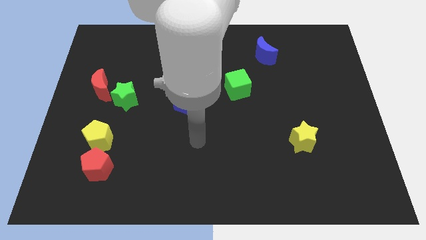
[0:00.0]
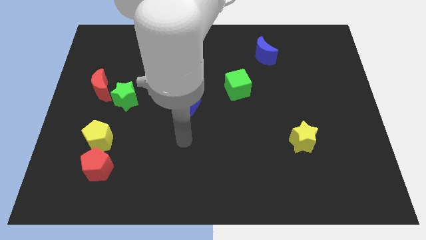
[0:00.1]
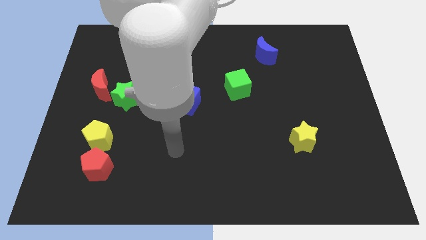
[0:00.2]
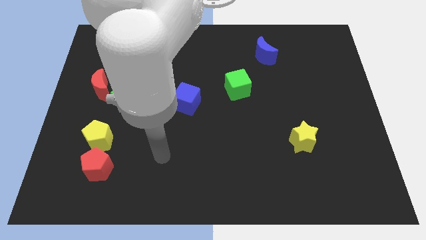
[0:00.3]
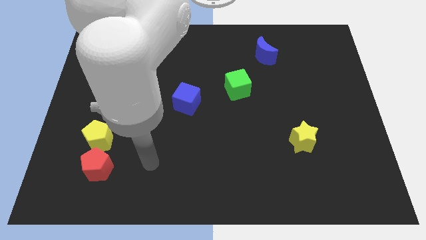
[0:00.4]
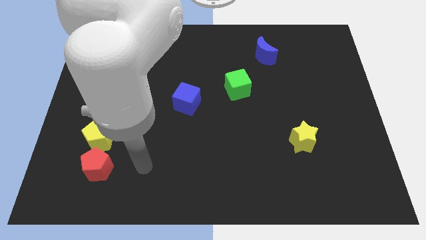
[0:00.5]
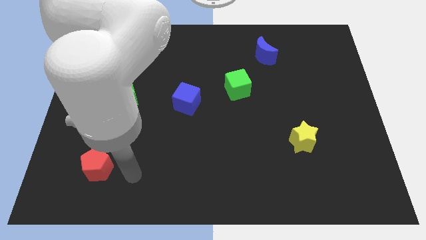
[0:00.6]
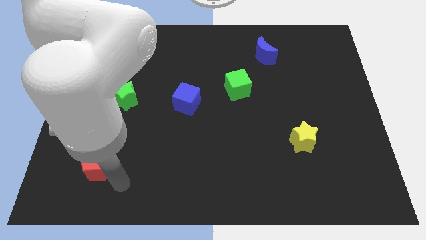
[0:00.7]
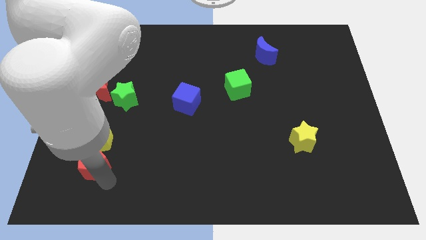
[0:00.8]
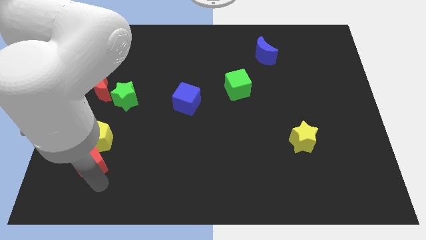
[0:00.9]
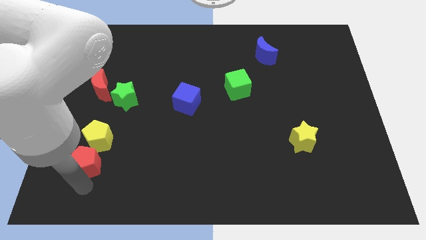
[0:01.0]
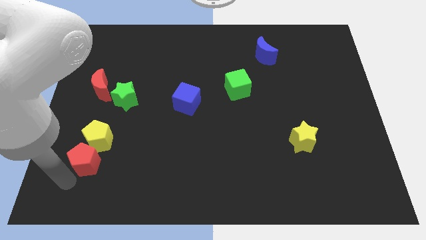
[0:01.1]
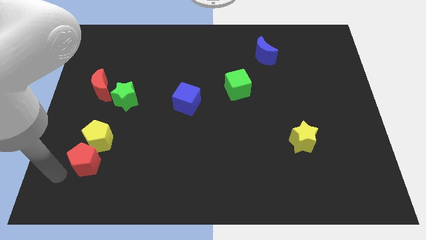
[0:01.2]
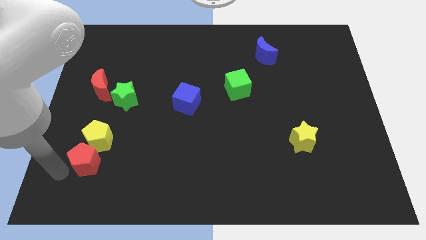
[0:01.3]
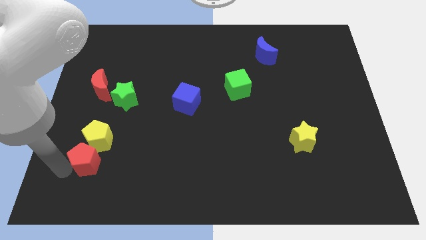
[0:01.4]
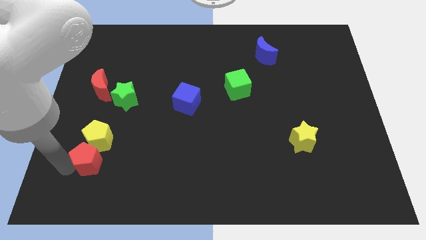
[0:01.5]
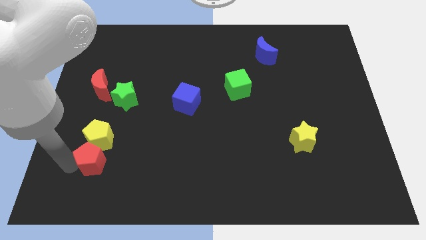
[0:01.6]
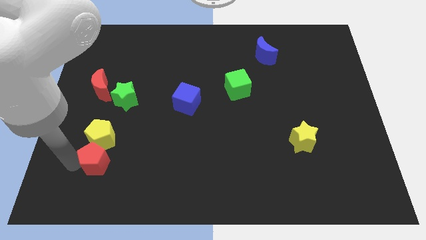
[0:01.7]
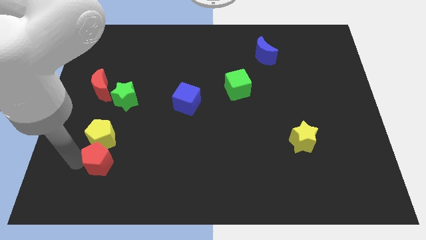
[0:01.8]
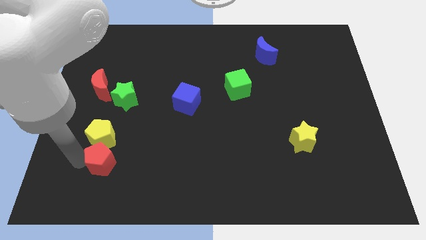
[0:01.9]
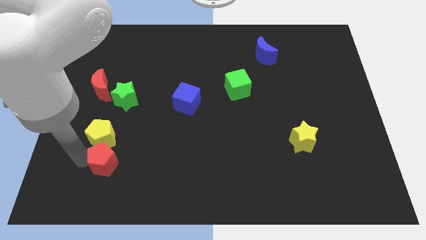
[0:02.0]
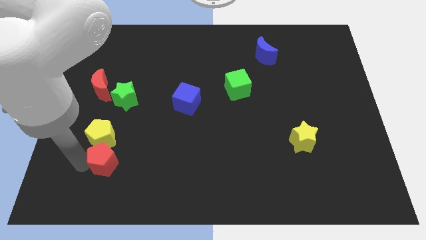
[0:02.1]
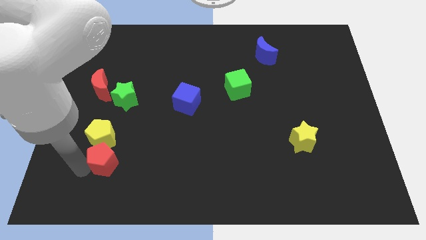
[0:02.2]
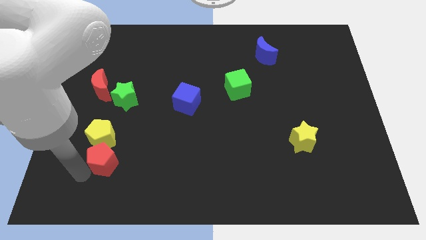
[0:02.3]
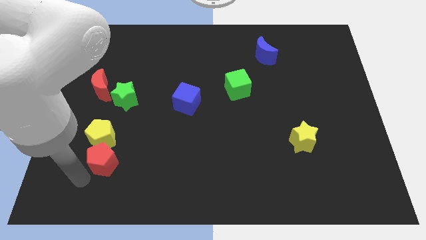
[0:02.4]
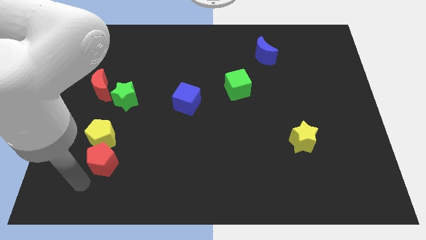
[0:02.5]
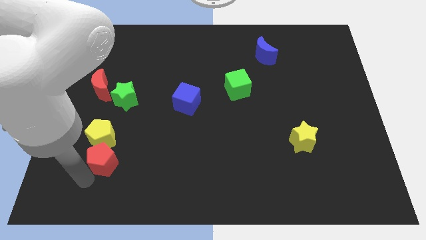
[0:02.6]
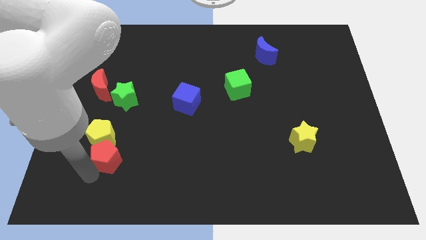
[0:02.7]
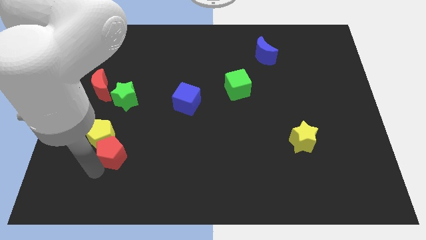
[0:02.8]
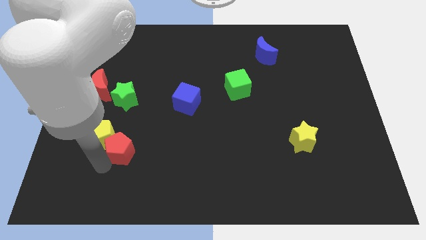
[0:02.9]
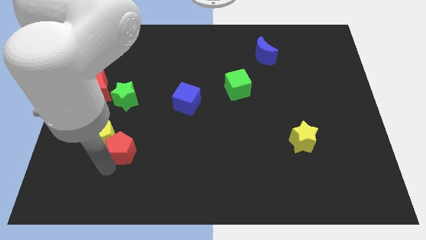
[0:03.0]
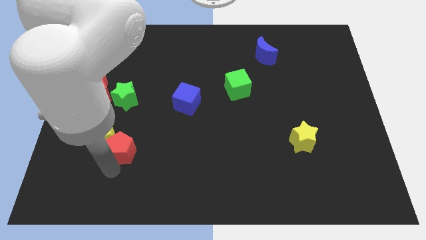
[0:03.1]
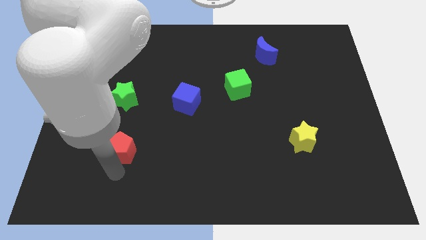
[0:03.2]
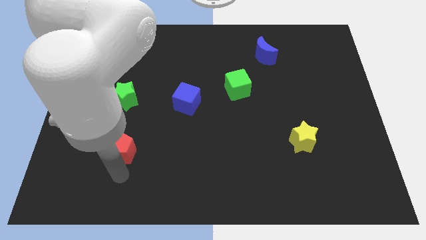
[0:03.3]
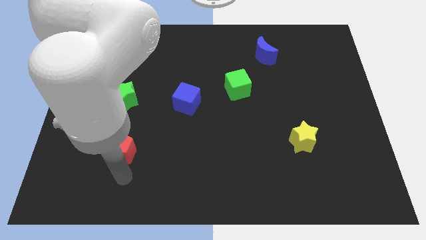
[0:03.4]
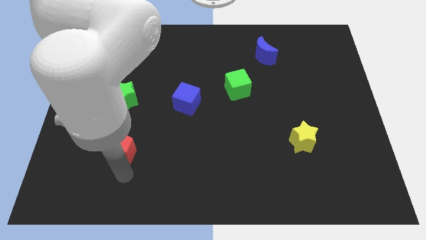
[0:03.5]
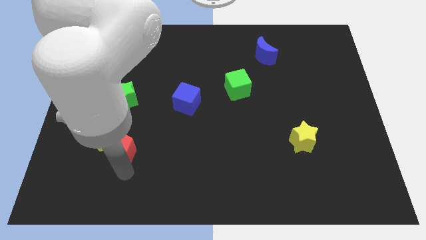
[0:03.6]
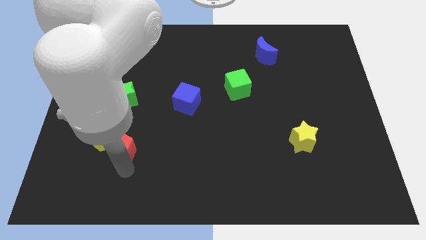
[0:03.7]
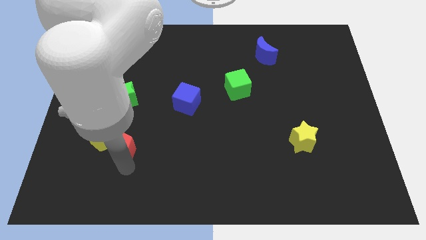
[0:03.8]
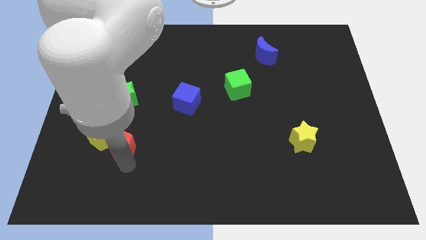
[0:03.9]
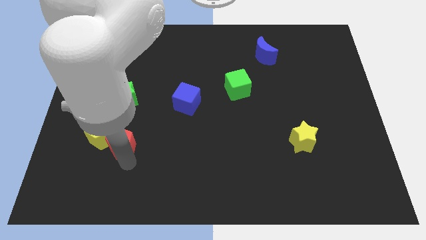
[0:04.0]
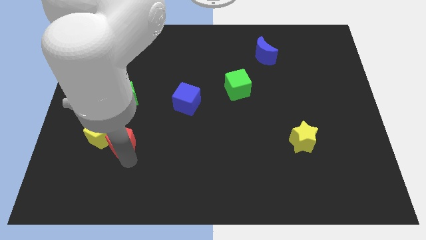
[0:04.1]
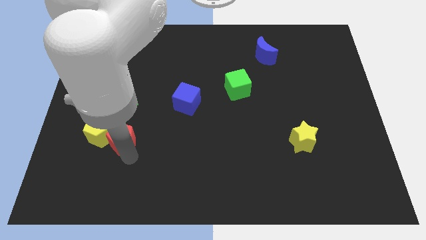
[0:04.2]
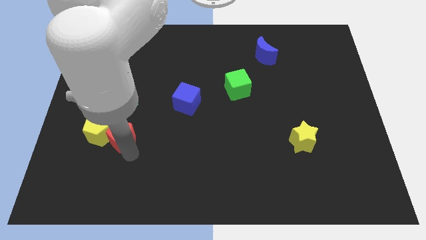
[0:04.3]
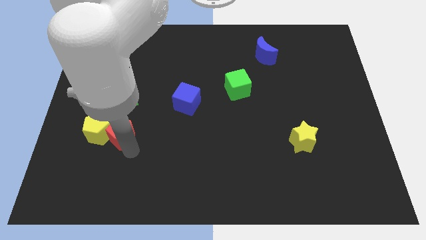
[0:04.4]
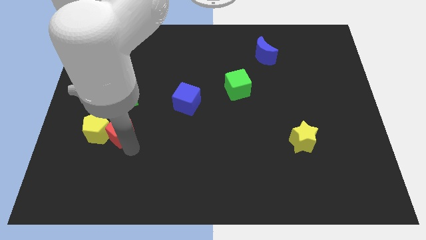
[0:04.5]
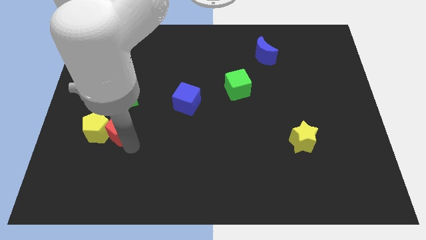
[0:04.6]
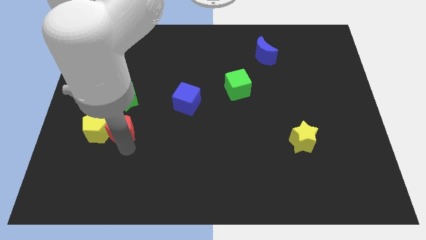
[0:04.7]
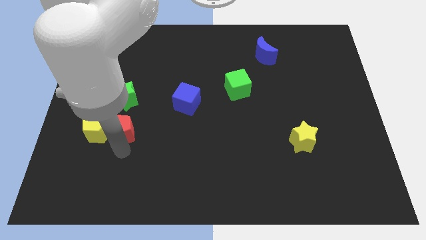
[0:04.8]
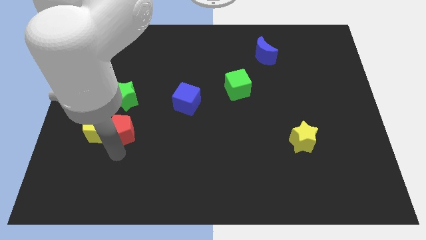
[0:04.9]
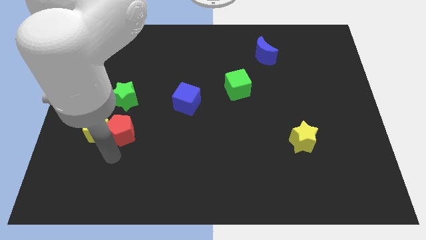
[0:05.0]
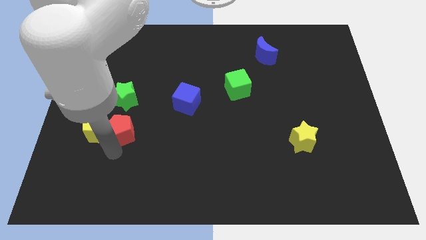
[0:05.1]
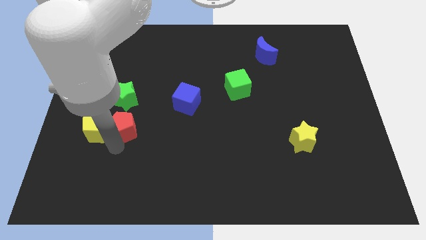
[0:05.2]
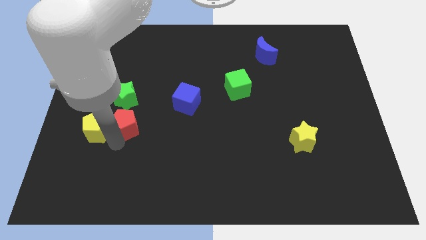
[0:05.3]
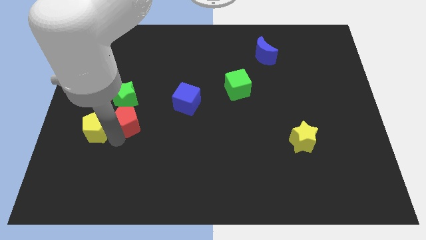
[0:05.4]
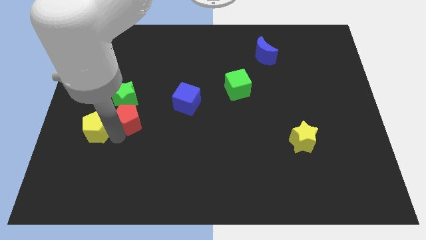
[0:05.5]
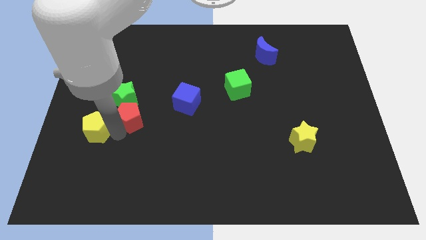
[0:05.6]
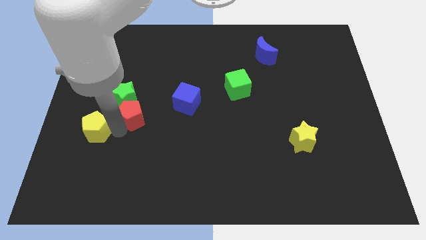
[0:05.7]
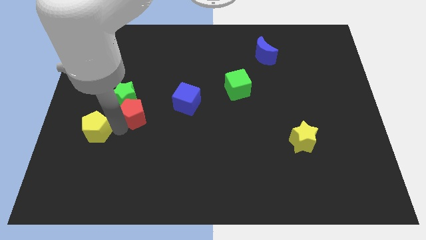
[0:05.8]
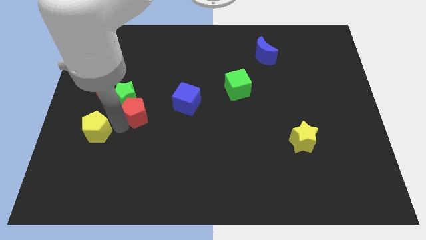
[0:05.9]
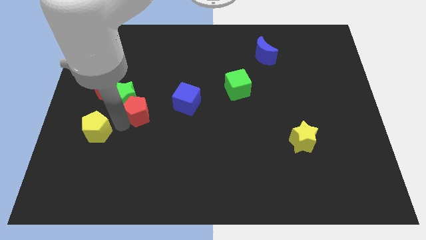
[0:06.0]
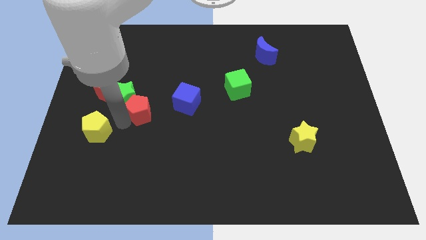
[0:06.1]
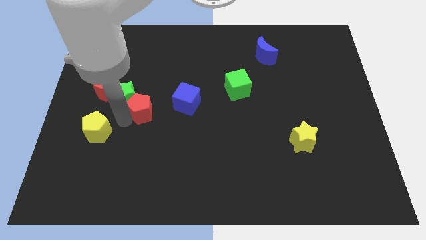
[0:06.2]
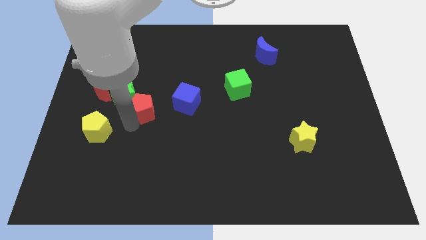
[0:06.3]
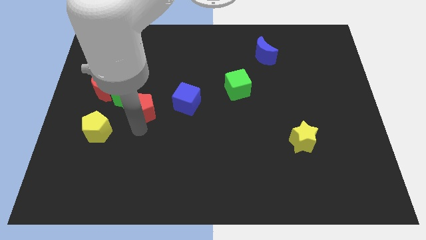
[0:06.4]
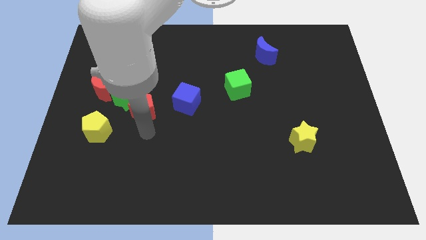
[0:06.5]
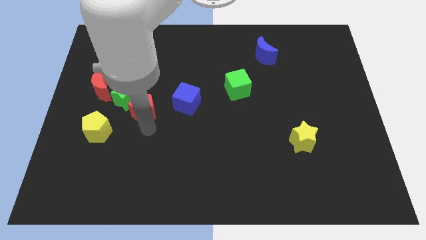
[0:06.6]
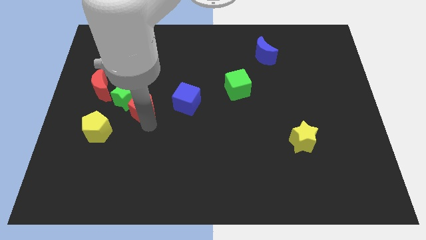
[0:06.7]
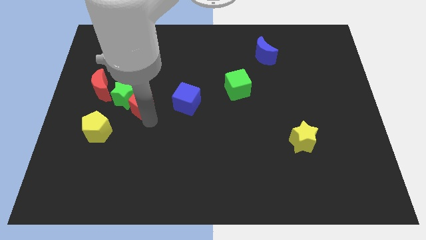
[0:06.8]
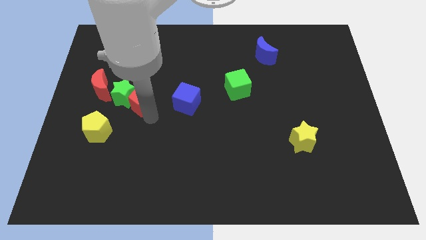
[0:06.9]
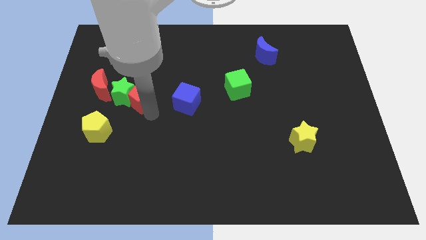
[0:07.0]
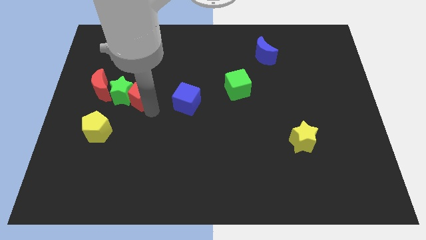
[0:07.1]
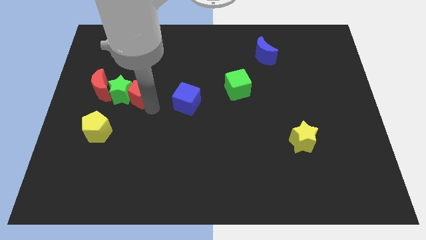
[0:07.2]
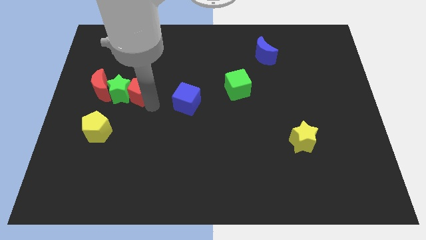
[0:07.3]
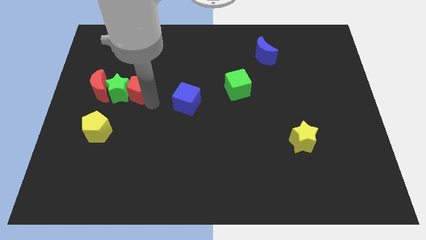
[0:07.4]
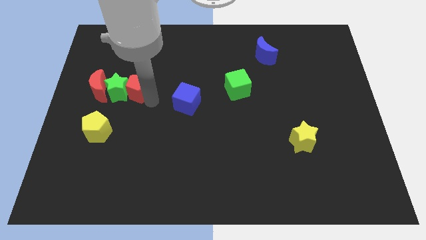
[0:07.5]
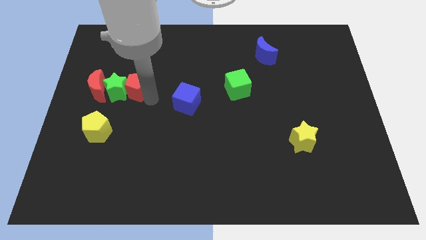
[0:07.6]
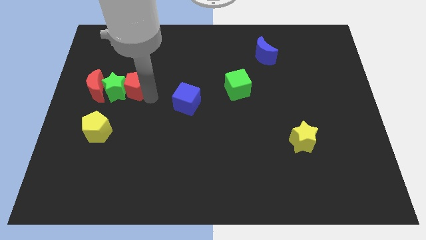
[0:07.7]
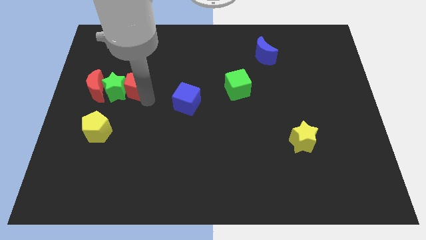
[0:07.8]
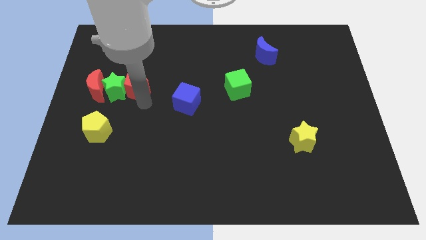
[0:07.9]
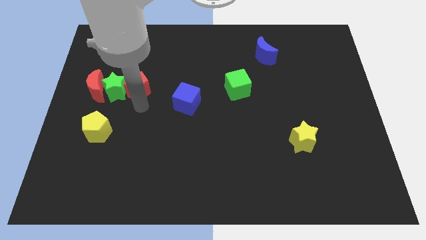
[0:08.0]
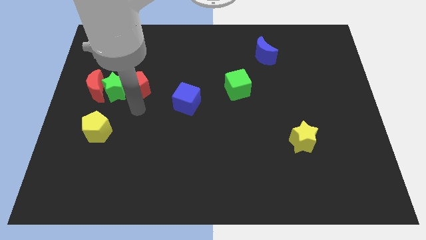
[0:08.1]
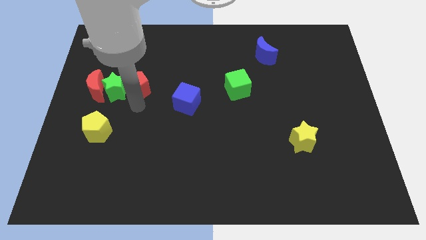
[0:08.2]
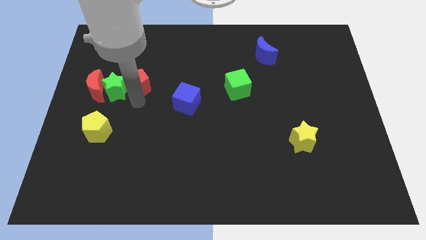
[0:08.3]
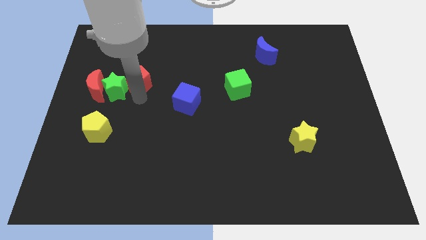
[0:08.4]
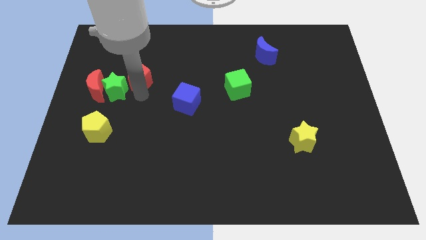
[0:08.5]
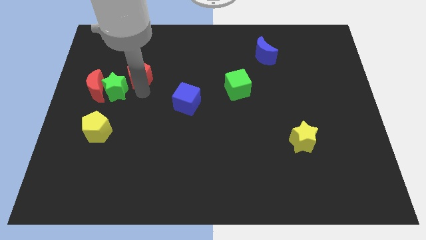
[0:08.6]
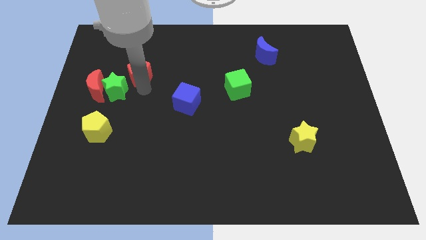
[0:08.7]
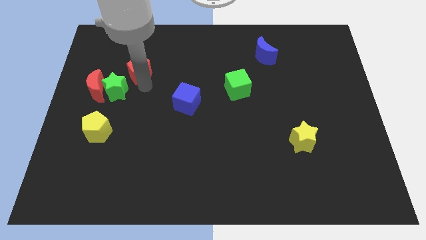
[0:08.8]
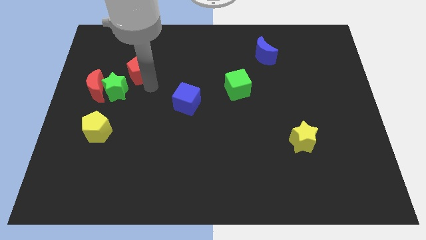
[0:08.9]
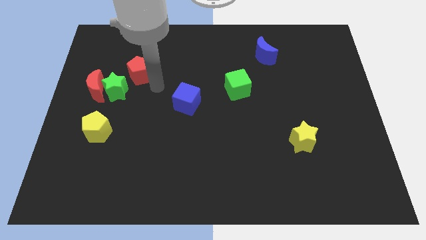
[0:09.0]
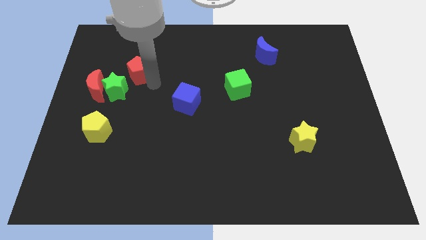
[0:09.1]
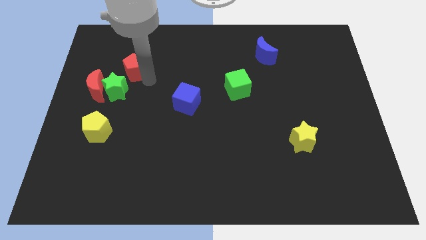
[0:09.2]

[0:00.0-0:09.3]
push the red pentagon to the top of the green star
